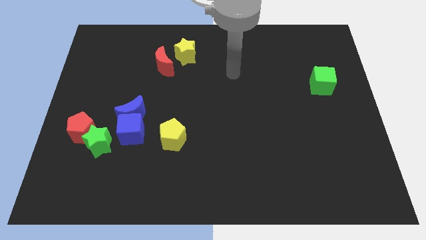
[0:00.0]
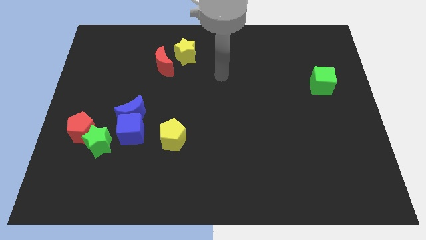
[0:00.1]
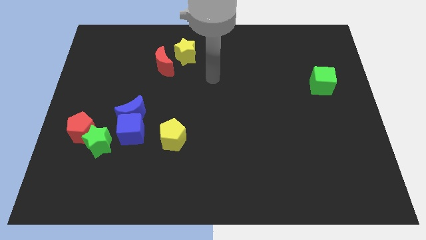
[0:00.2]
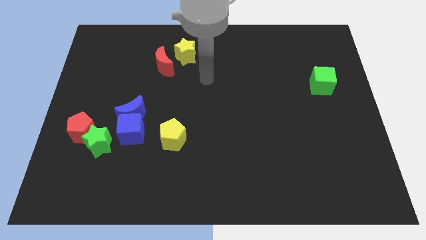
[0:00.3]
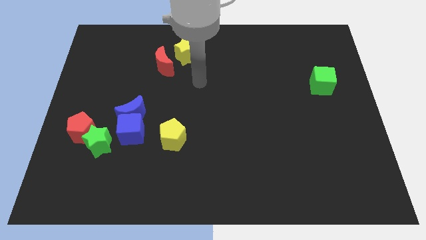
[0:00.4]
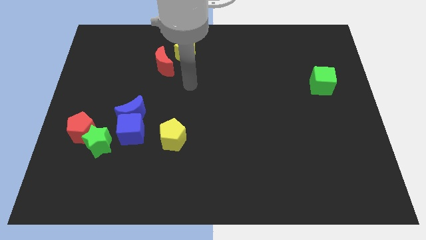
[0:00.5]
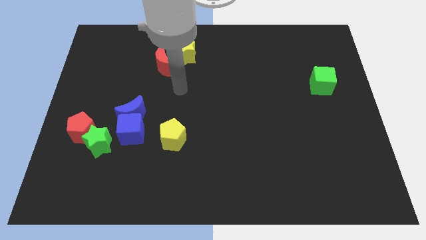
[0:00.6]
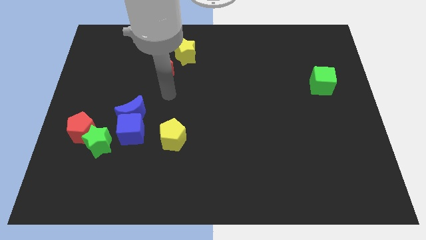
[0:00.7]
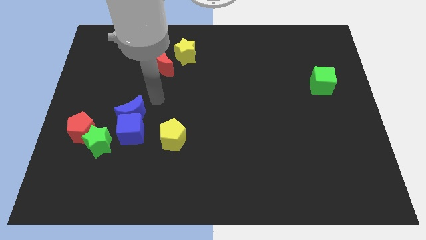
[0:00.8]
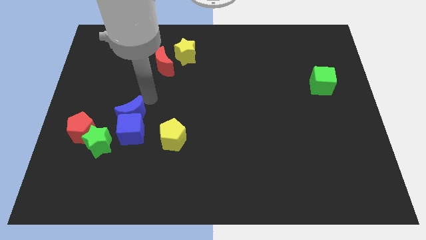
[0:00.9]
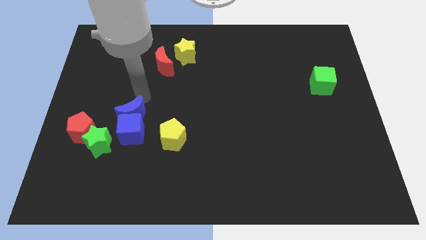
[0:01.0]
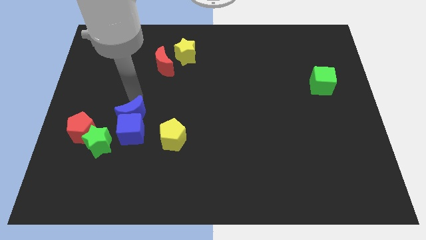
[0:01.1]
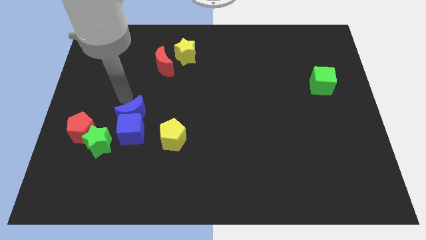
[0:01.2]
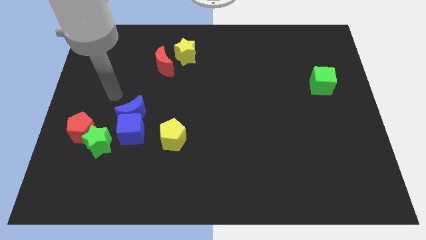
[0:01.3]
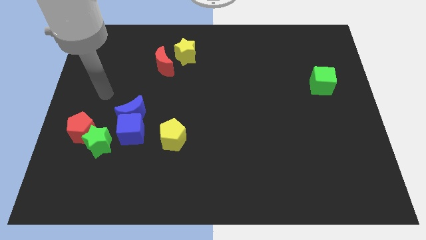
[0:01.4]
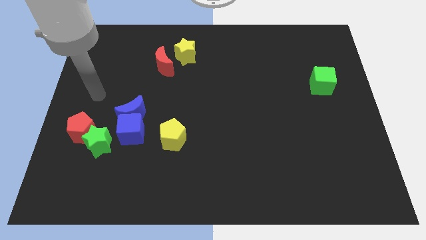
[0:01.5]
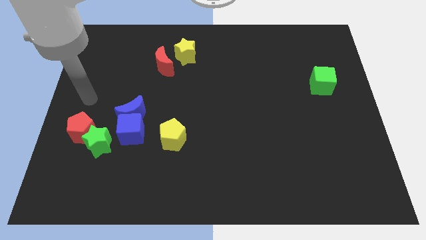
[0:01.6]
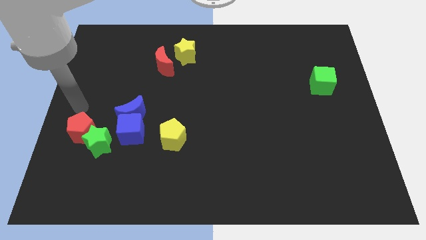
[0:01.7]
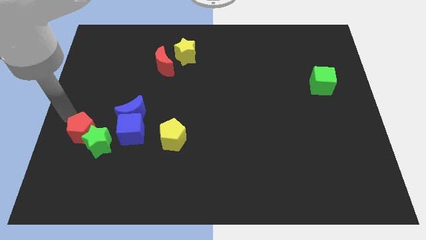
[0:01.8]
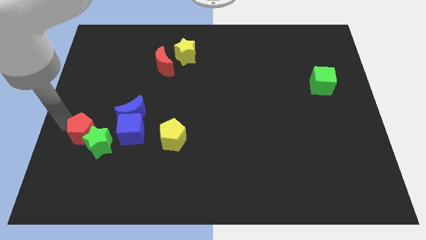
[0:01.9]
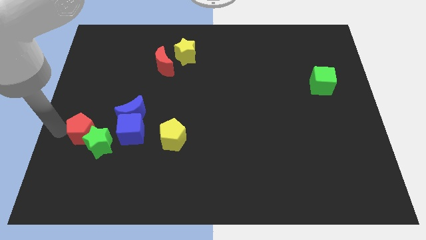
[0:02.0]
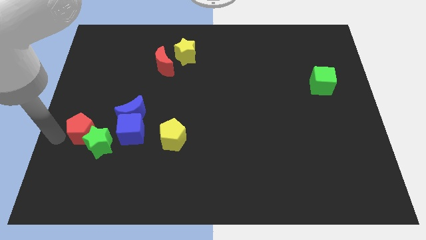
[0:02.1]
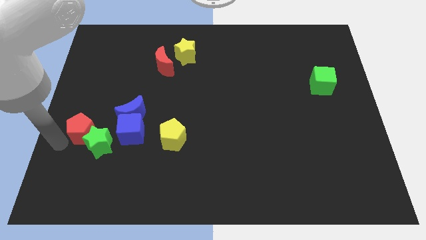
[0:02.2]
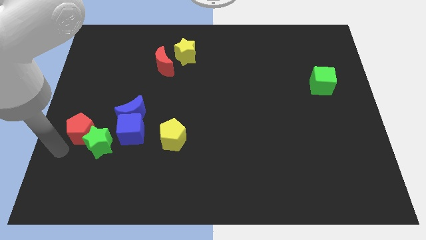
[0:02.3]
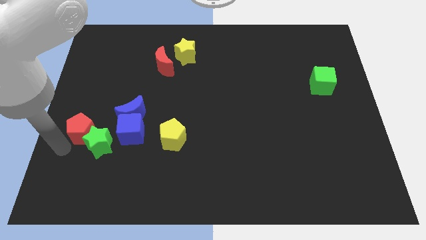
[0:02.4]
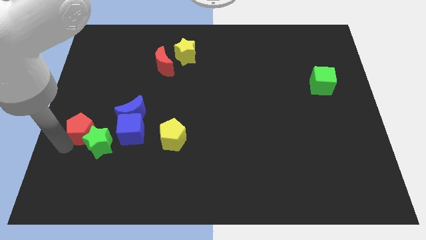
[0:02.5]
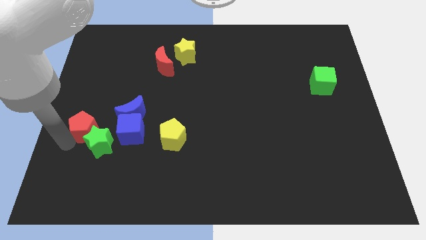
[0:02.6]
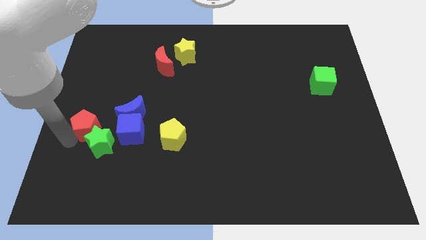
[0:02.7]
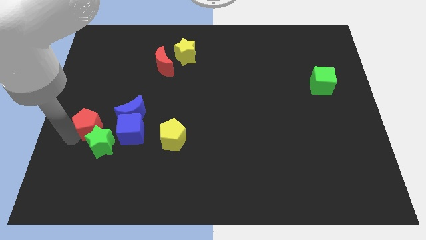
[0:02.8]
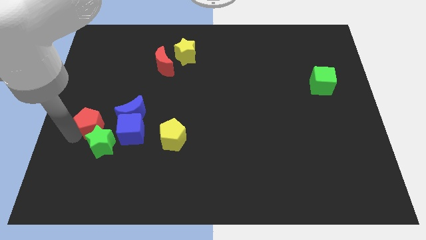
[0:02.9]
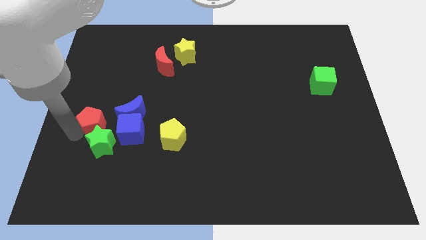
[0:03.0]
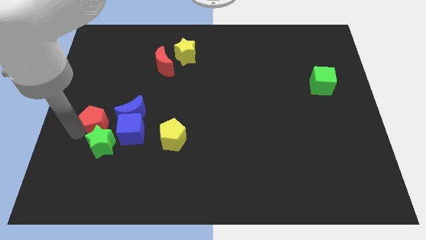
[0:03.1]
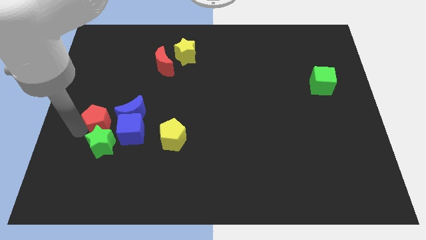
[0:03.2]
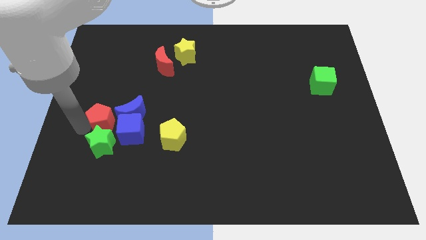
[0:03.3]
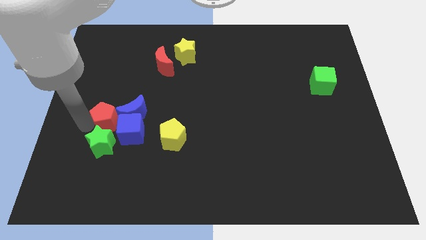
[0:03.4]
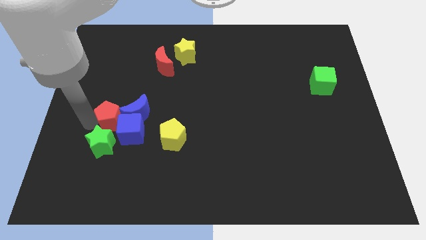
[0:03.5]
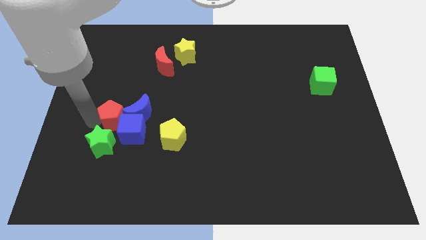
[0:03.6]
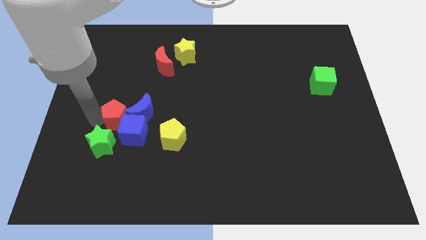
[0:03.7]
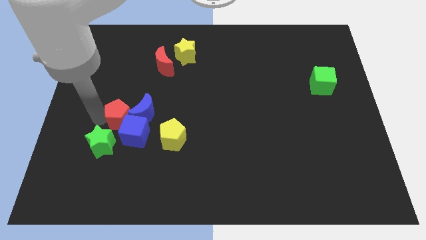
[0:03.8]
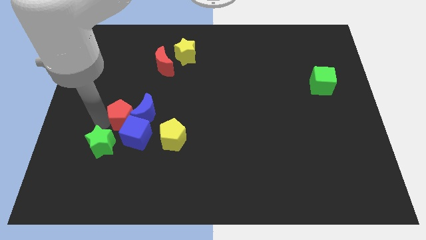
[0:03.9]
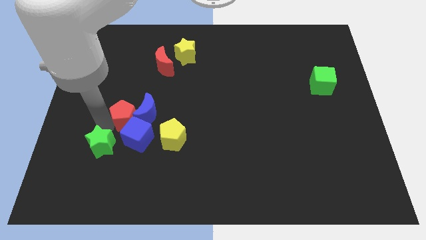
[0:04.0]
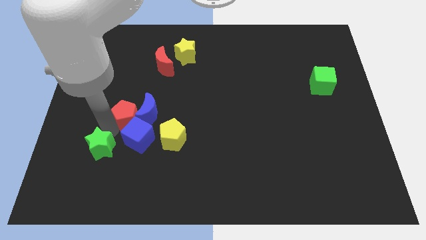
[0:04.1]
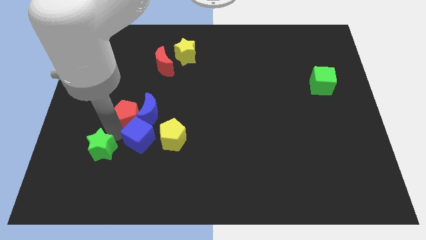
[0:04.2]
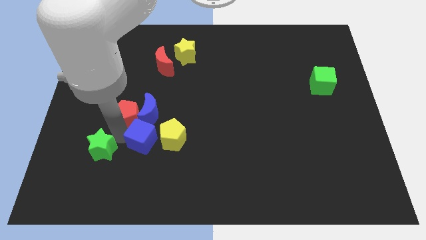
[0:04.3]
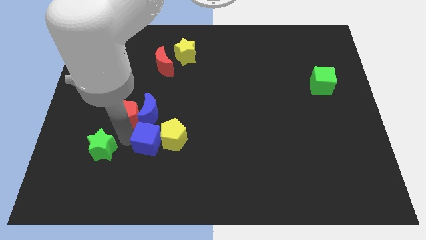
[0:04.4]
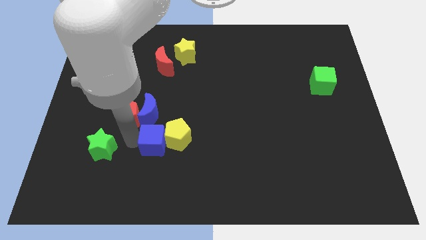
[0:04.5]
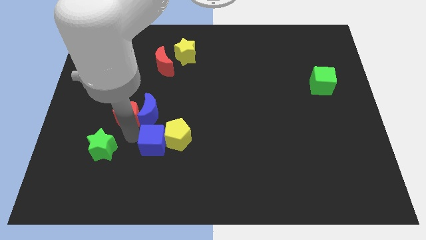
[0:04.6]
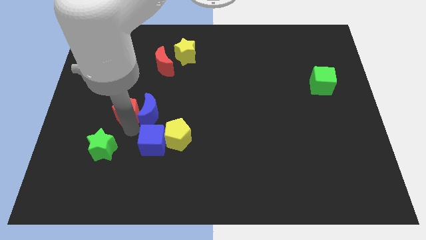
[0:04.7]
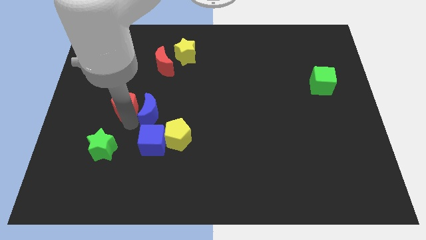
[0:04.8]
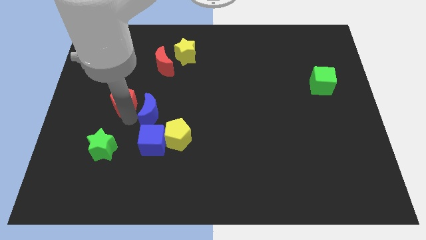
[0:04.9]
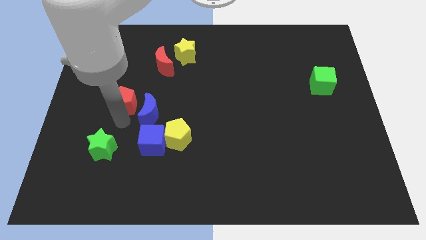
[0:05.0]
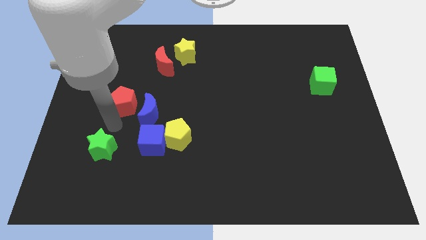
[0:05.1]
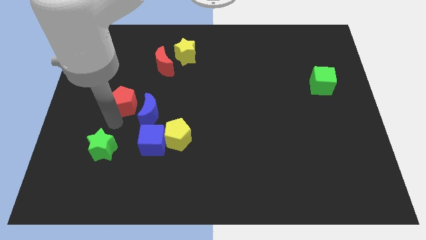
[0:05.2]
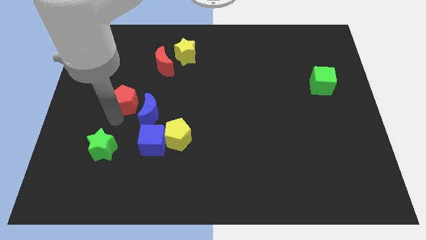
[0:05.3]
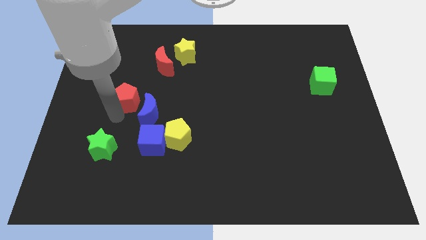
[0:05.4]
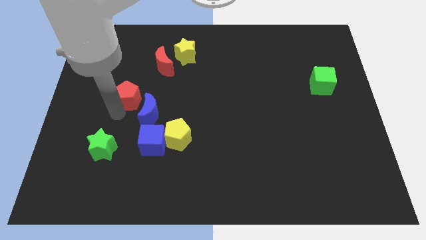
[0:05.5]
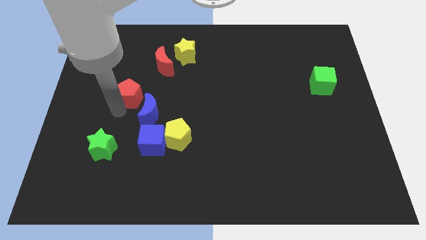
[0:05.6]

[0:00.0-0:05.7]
push the red pentagon to the bottom left of the red moon

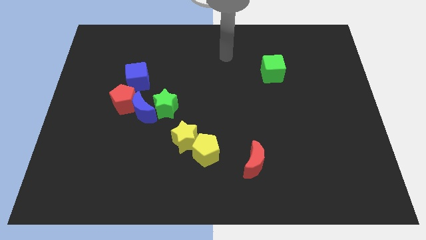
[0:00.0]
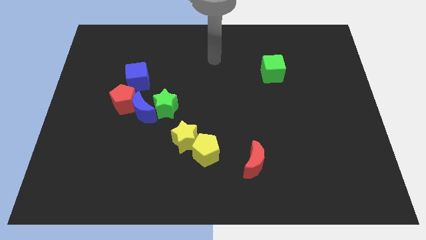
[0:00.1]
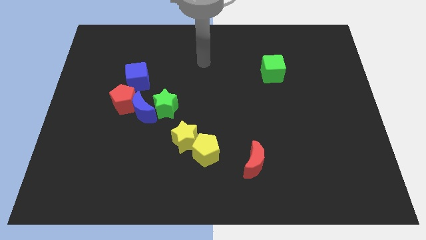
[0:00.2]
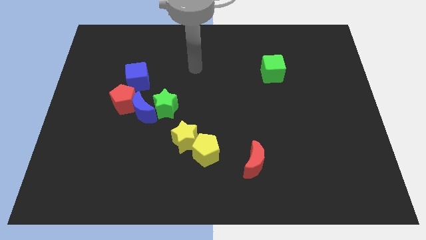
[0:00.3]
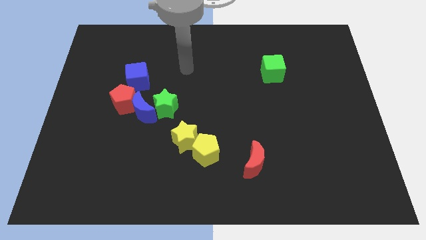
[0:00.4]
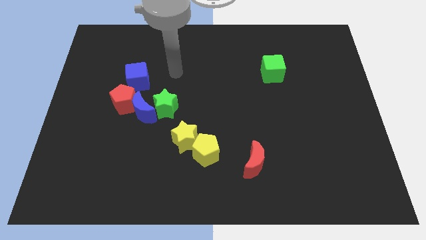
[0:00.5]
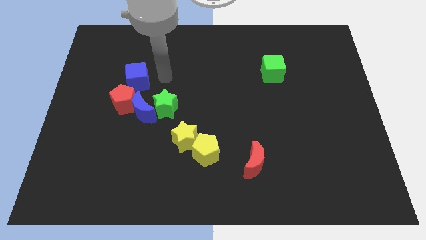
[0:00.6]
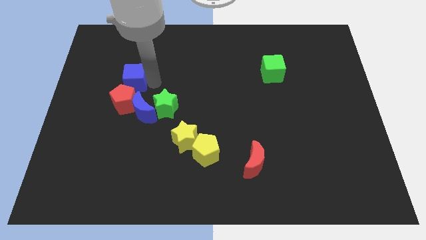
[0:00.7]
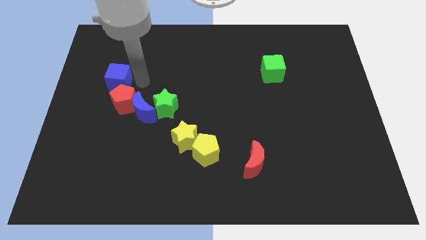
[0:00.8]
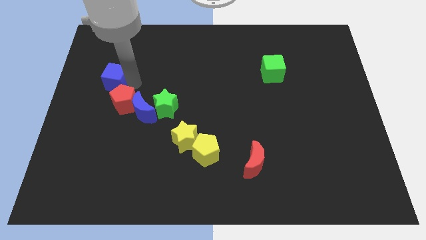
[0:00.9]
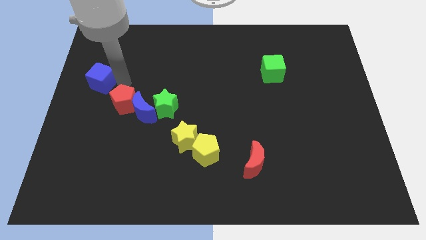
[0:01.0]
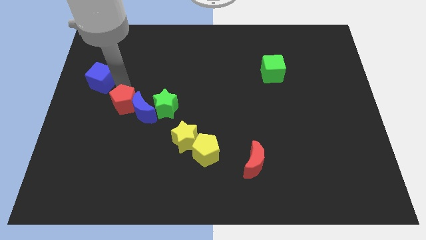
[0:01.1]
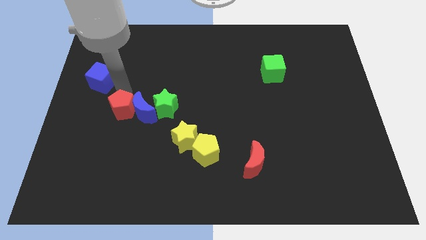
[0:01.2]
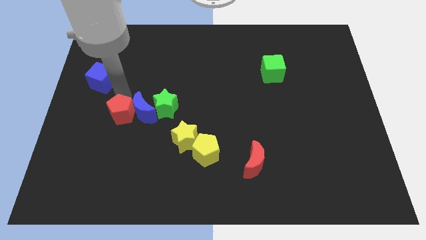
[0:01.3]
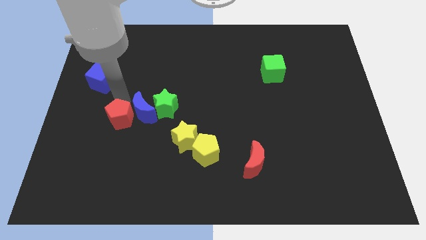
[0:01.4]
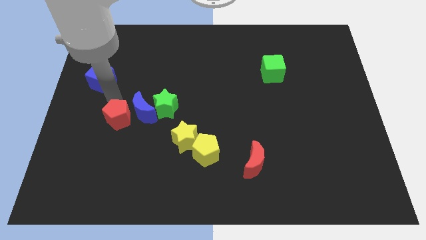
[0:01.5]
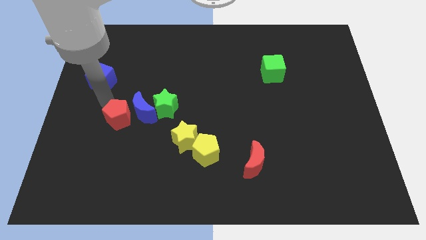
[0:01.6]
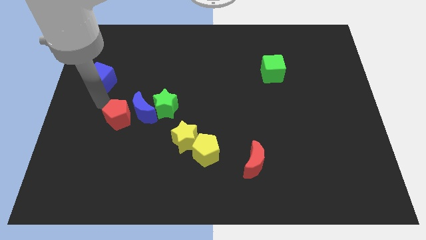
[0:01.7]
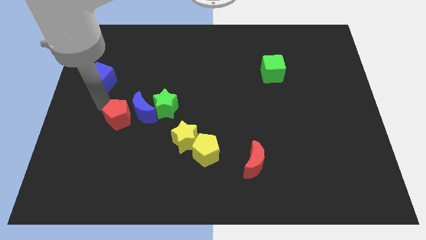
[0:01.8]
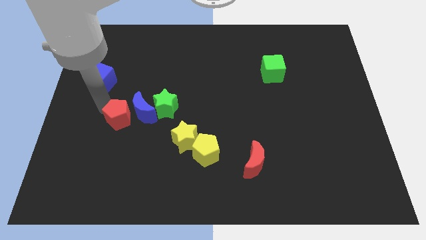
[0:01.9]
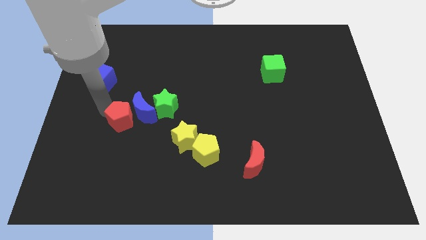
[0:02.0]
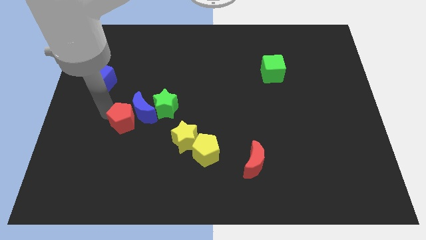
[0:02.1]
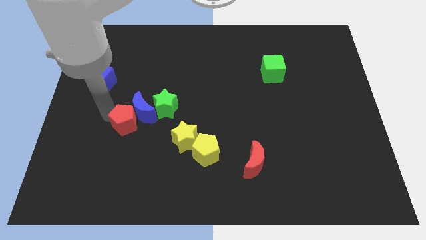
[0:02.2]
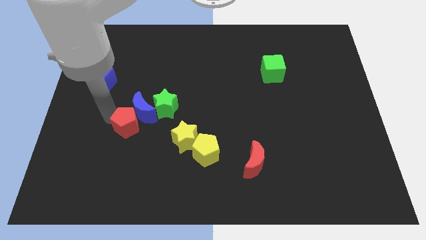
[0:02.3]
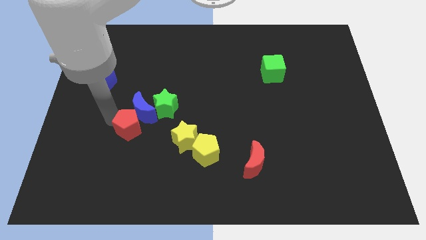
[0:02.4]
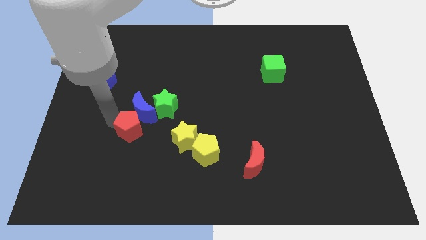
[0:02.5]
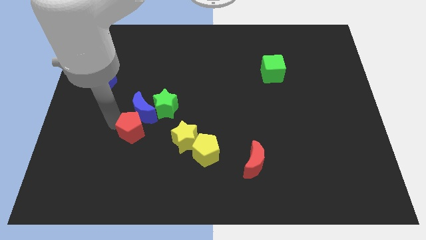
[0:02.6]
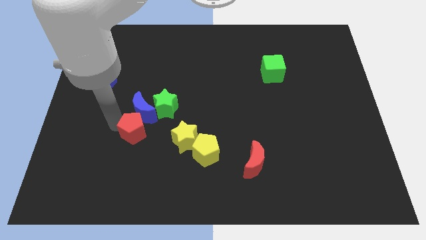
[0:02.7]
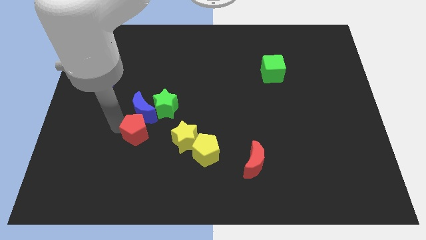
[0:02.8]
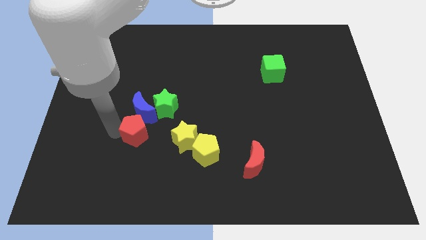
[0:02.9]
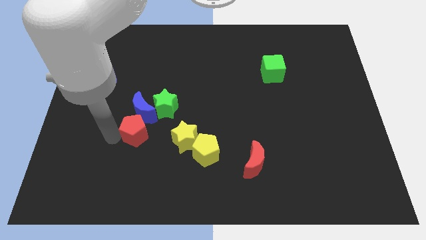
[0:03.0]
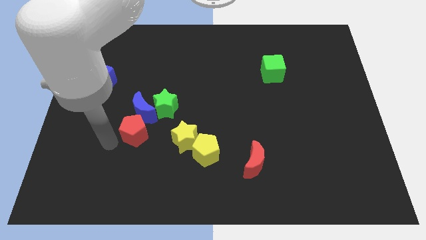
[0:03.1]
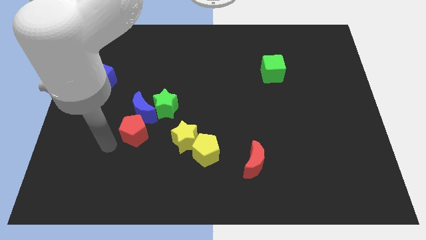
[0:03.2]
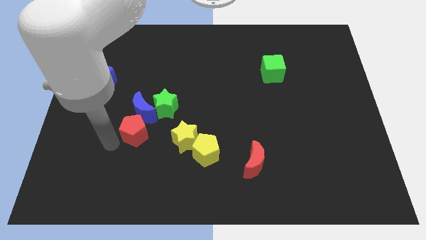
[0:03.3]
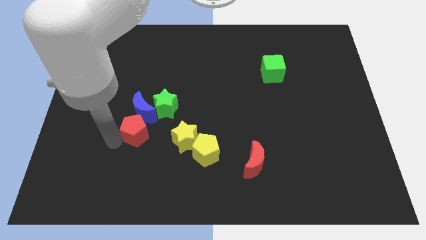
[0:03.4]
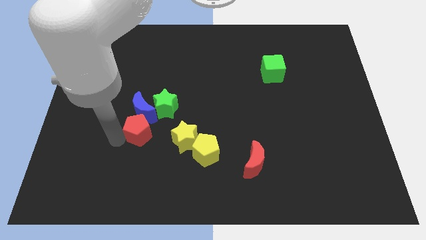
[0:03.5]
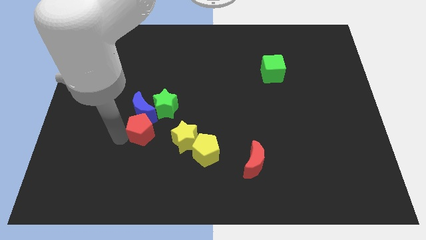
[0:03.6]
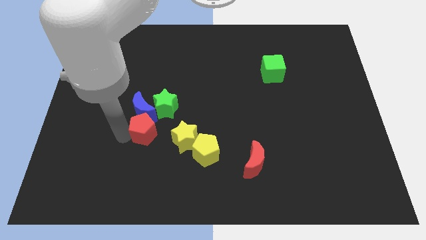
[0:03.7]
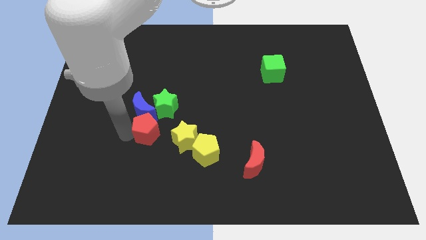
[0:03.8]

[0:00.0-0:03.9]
put the red pentagon to the top left of the yellow star
